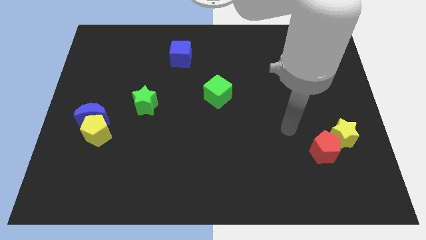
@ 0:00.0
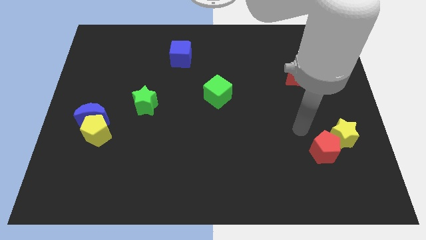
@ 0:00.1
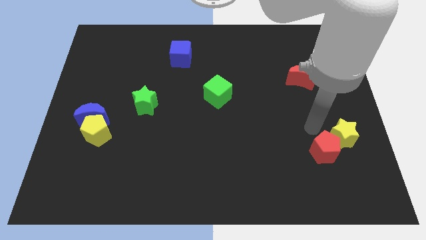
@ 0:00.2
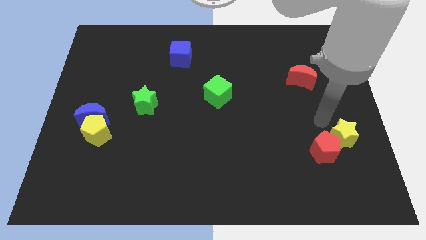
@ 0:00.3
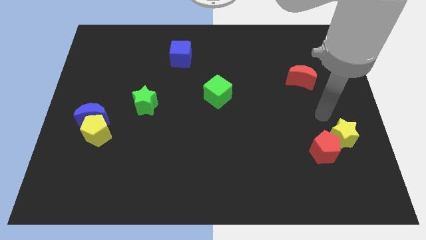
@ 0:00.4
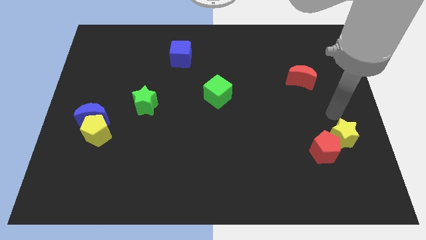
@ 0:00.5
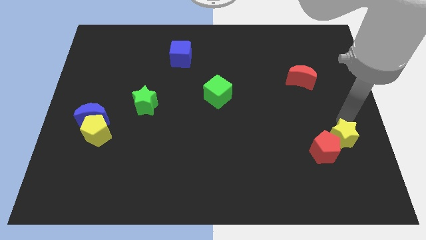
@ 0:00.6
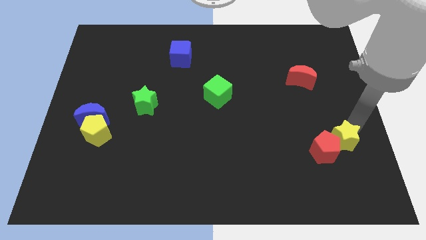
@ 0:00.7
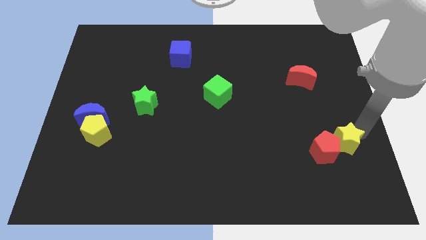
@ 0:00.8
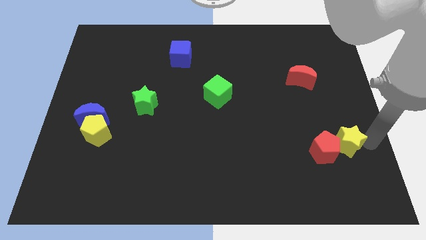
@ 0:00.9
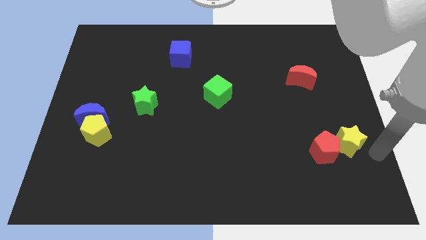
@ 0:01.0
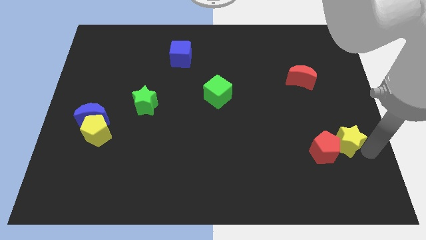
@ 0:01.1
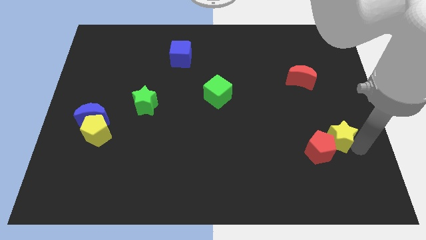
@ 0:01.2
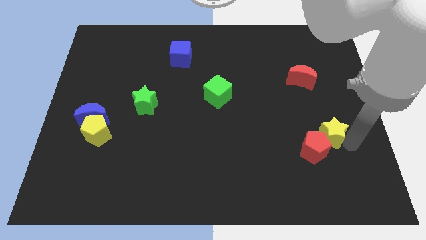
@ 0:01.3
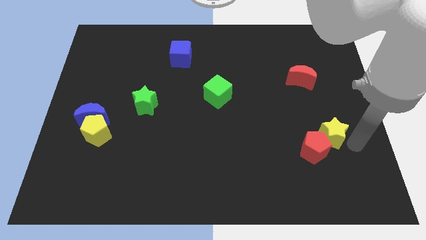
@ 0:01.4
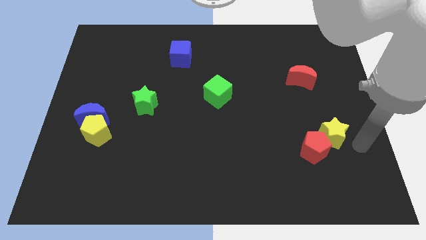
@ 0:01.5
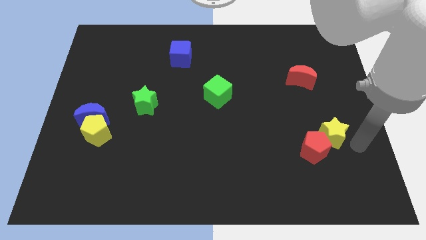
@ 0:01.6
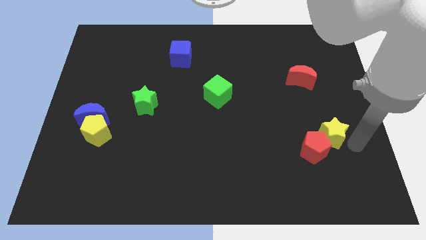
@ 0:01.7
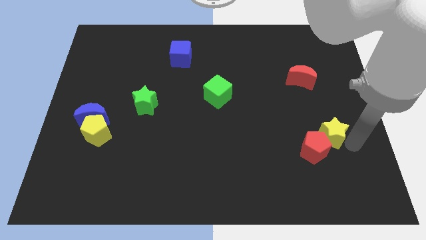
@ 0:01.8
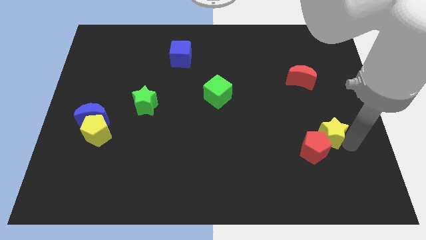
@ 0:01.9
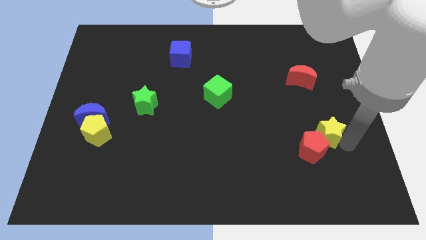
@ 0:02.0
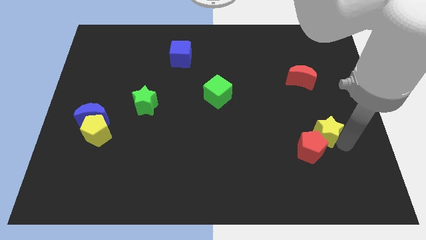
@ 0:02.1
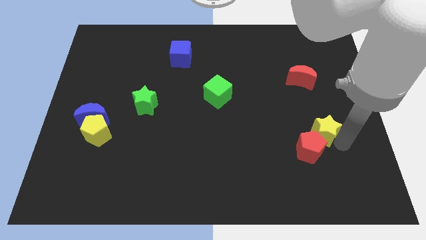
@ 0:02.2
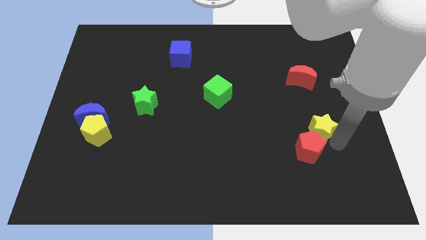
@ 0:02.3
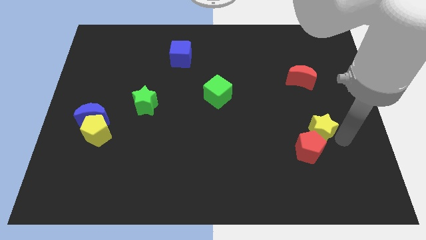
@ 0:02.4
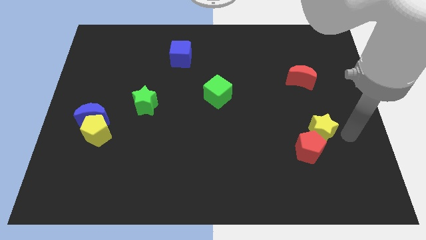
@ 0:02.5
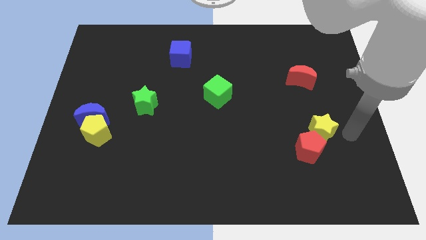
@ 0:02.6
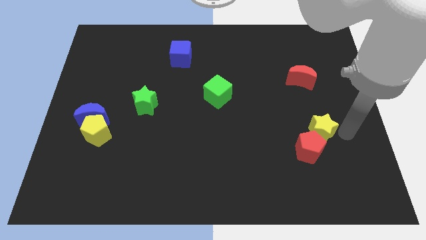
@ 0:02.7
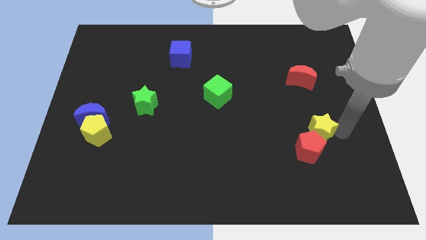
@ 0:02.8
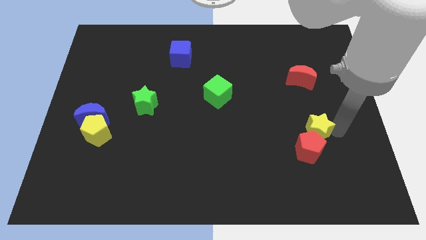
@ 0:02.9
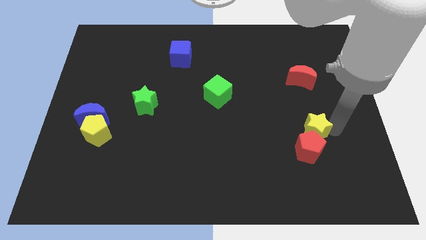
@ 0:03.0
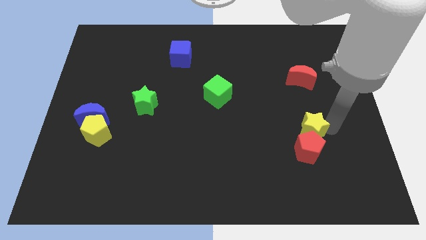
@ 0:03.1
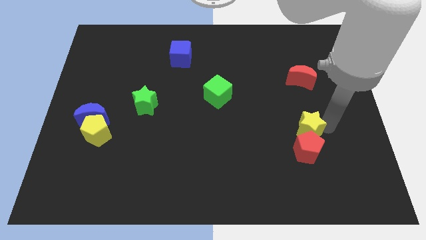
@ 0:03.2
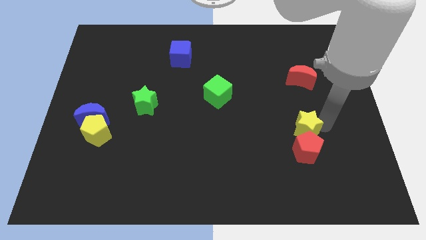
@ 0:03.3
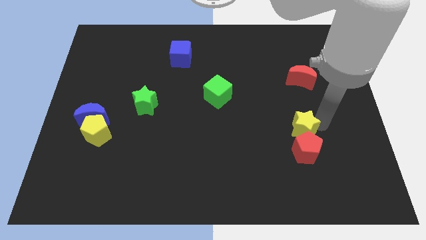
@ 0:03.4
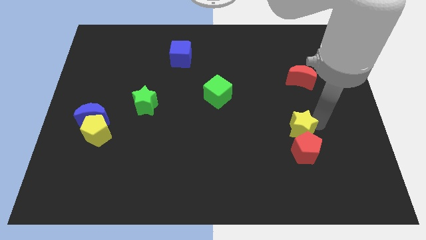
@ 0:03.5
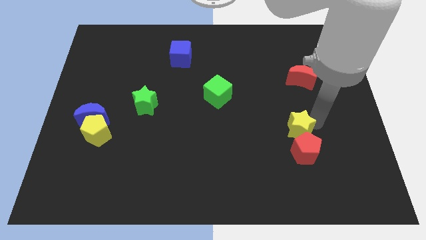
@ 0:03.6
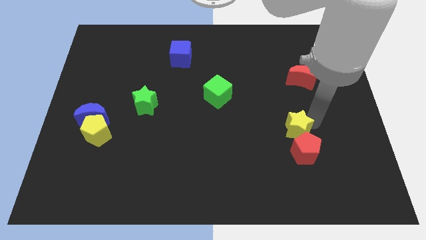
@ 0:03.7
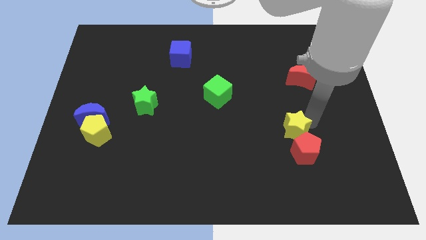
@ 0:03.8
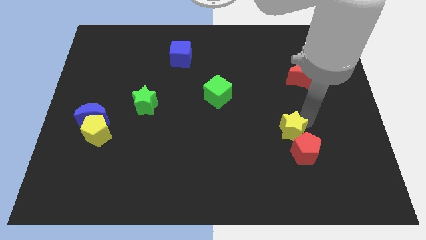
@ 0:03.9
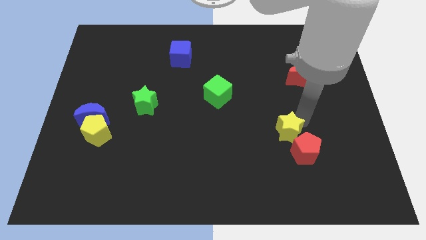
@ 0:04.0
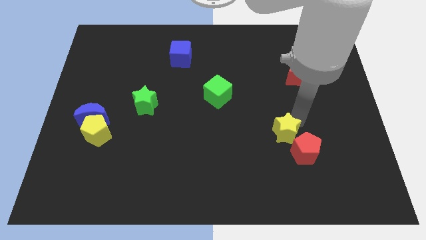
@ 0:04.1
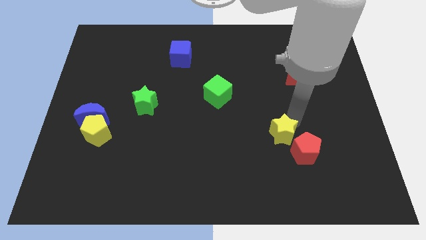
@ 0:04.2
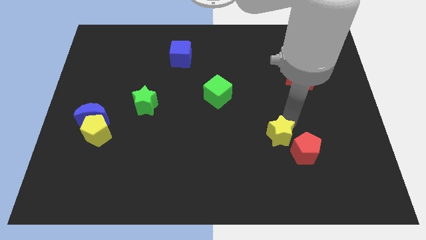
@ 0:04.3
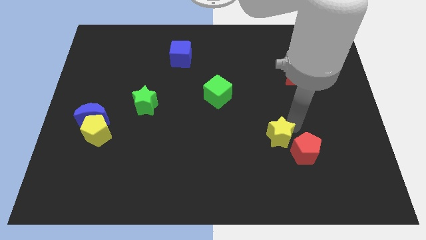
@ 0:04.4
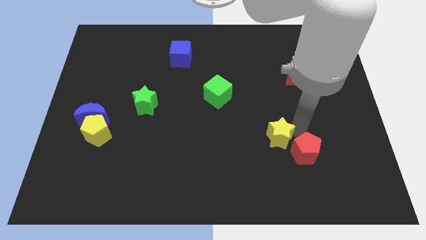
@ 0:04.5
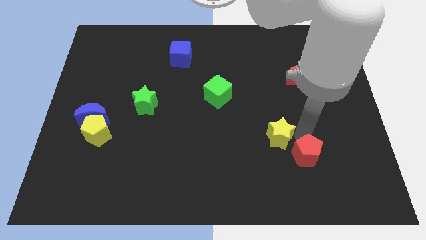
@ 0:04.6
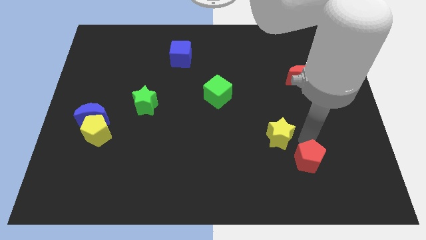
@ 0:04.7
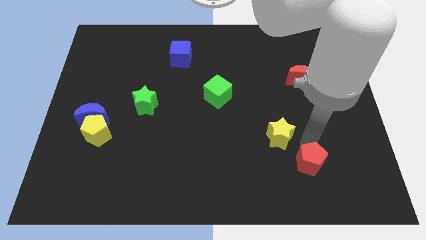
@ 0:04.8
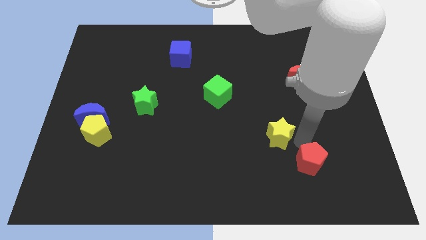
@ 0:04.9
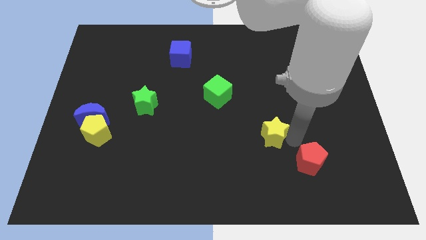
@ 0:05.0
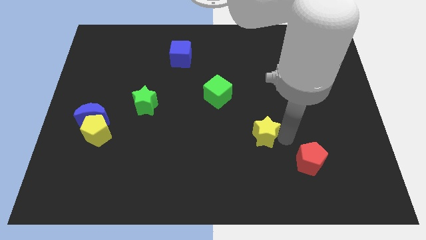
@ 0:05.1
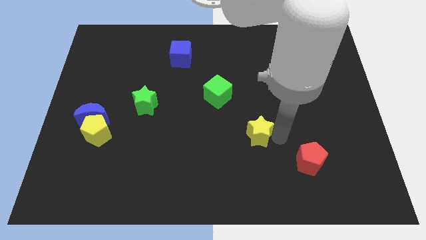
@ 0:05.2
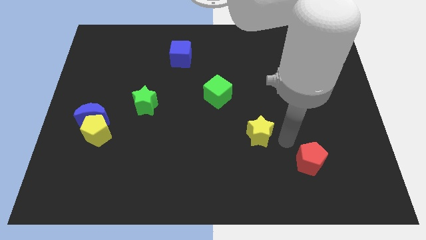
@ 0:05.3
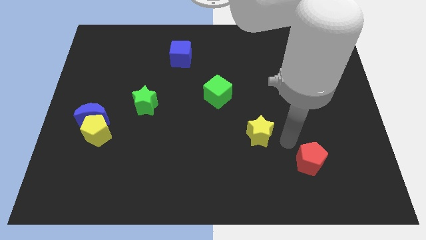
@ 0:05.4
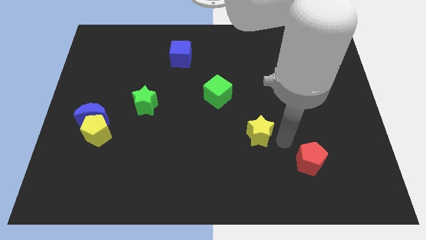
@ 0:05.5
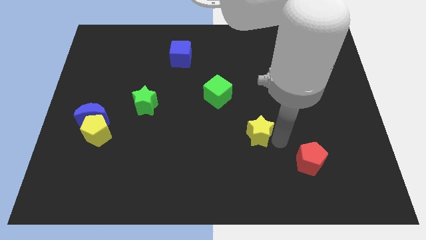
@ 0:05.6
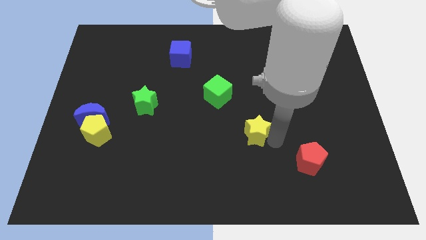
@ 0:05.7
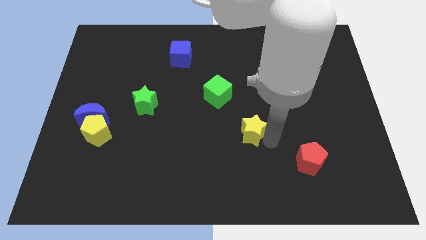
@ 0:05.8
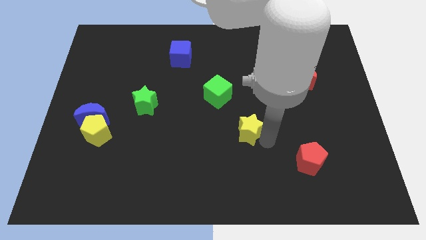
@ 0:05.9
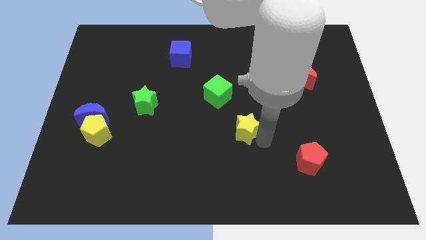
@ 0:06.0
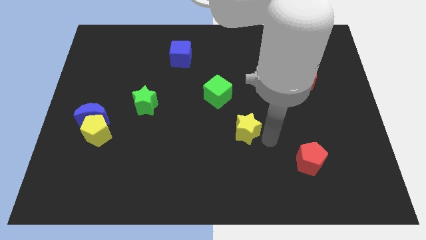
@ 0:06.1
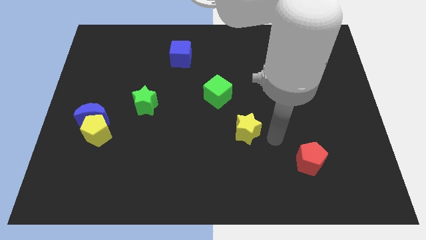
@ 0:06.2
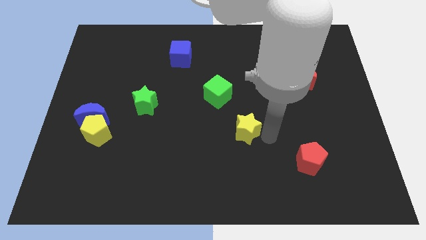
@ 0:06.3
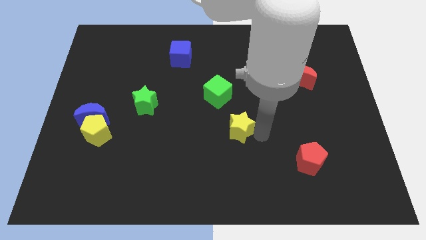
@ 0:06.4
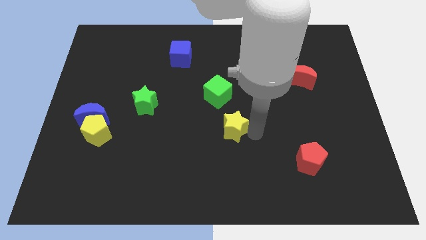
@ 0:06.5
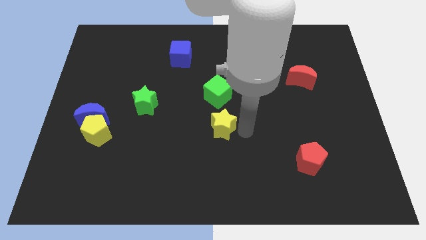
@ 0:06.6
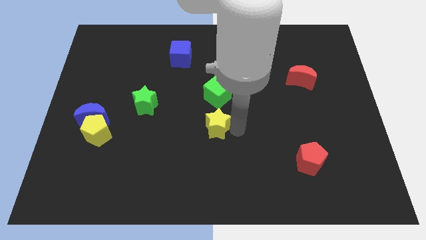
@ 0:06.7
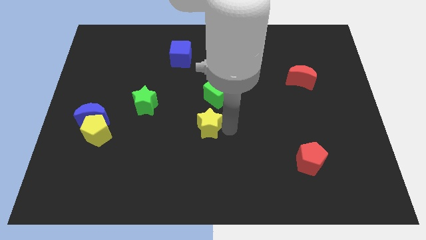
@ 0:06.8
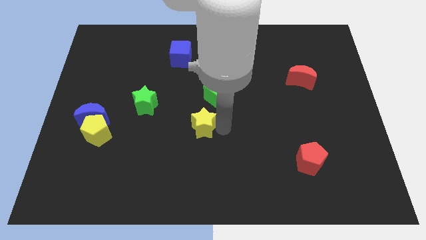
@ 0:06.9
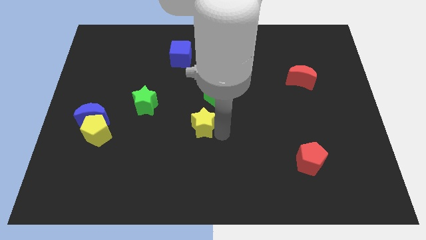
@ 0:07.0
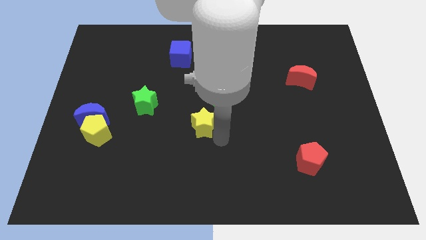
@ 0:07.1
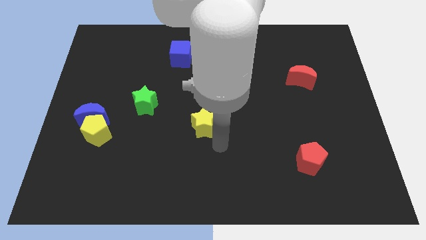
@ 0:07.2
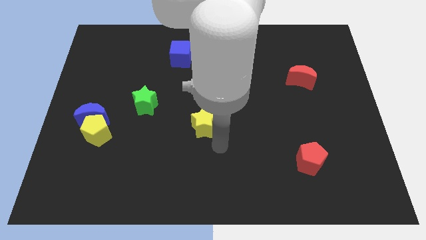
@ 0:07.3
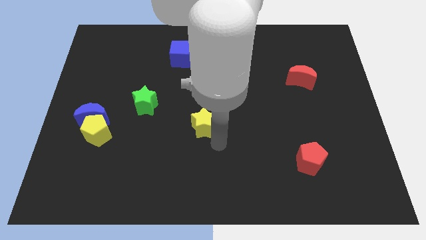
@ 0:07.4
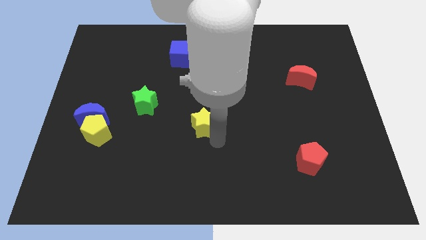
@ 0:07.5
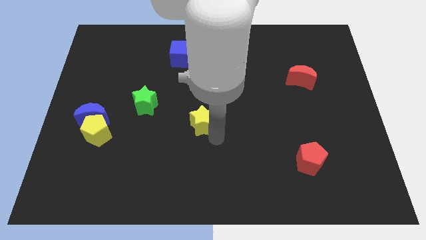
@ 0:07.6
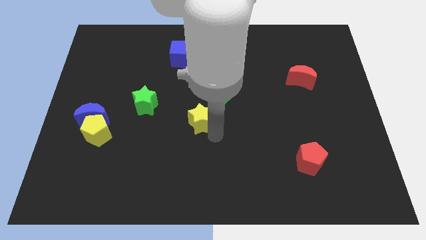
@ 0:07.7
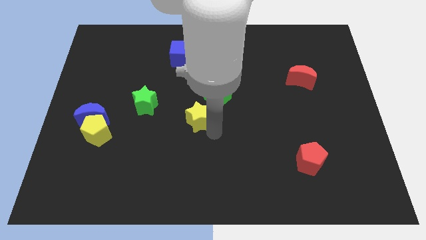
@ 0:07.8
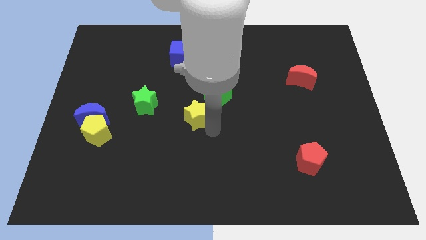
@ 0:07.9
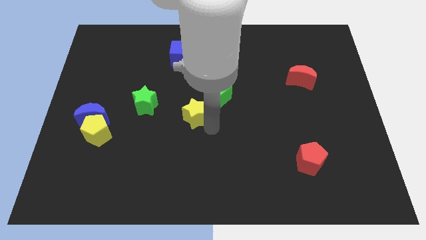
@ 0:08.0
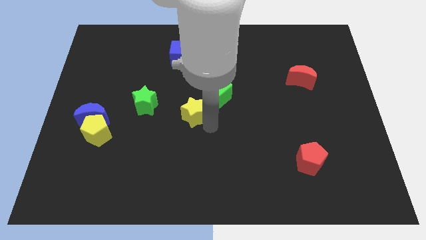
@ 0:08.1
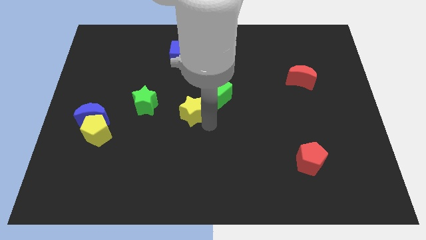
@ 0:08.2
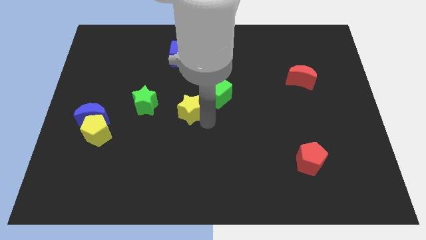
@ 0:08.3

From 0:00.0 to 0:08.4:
move the yellow star left of the green cube
